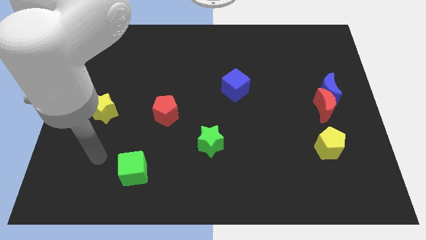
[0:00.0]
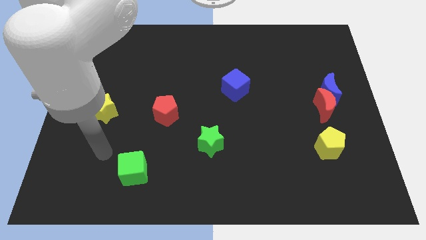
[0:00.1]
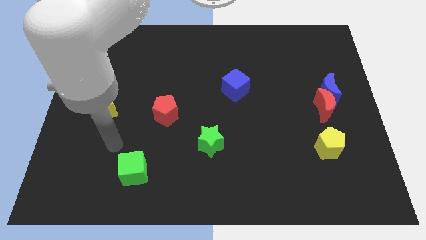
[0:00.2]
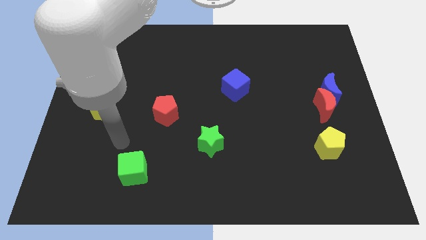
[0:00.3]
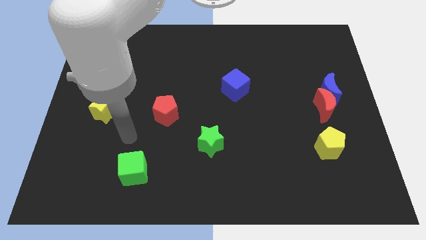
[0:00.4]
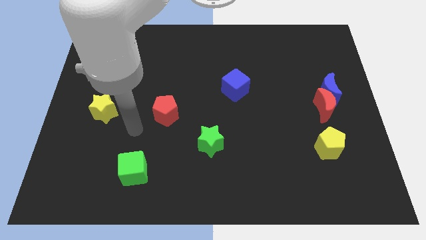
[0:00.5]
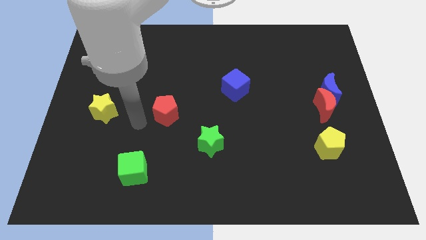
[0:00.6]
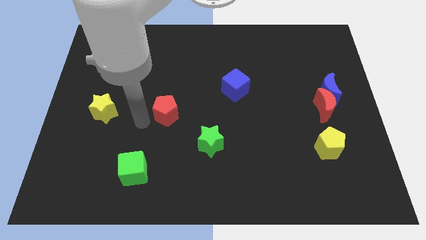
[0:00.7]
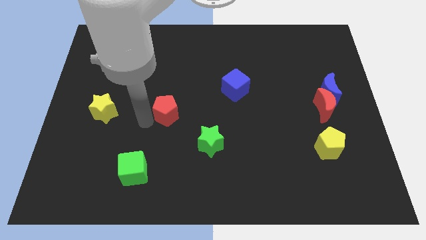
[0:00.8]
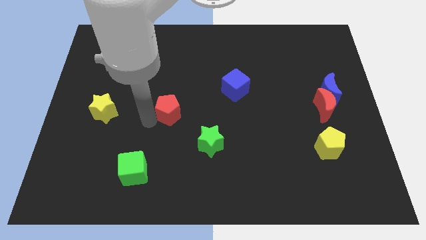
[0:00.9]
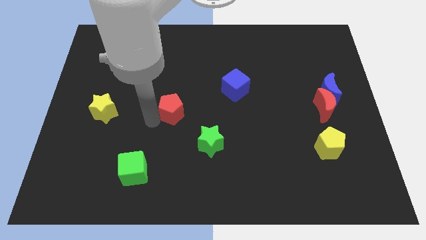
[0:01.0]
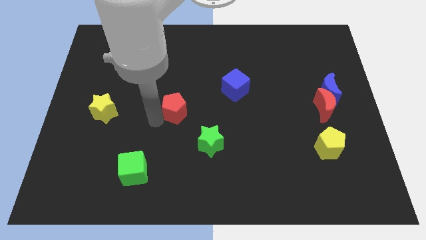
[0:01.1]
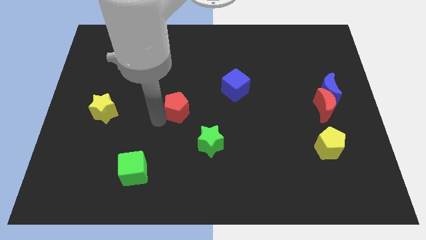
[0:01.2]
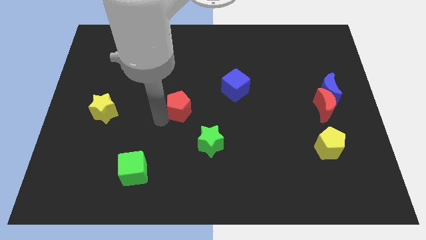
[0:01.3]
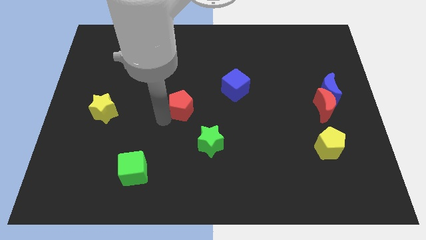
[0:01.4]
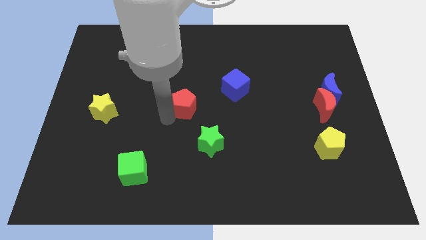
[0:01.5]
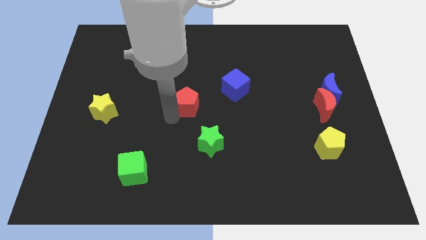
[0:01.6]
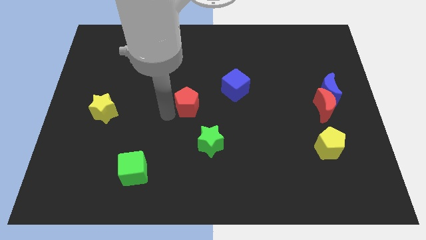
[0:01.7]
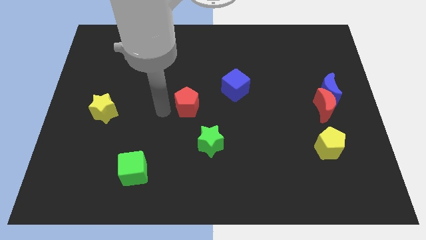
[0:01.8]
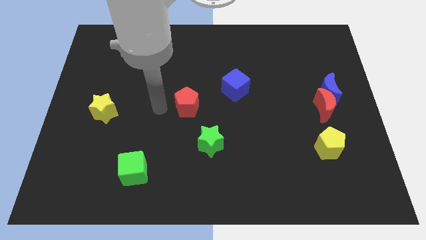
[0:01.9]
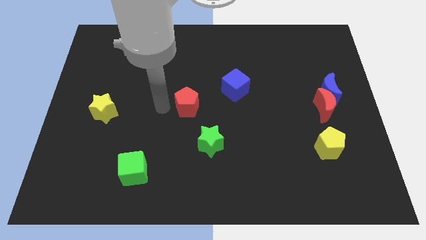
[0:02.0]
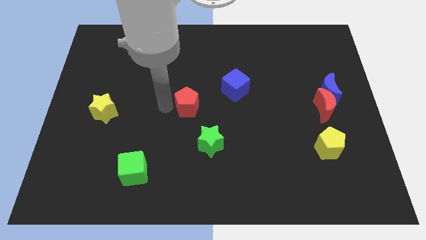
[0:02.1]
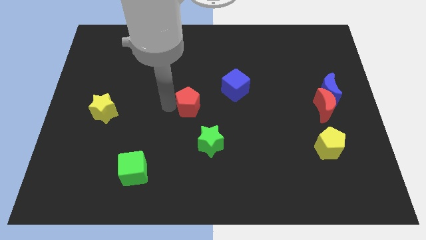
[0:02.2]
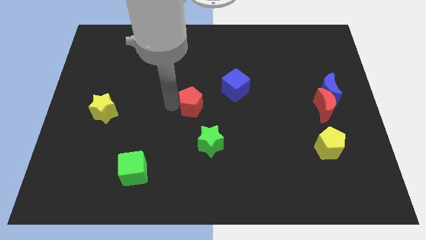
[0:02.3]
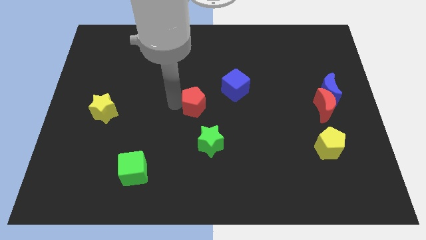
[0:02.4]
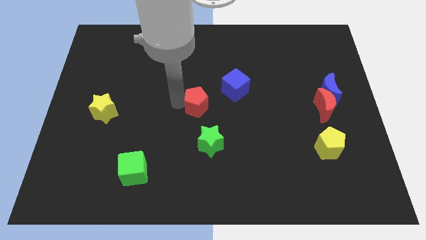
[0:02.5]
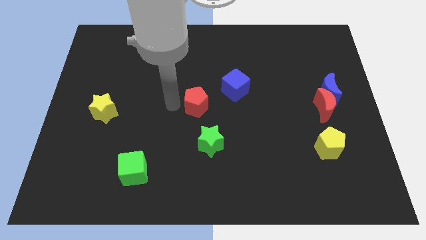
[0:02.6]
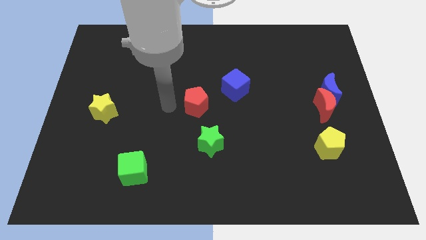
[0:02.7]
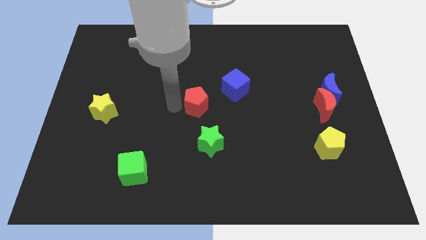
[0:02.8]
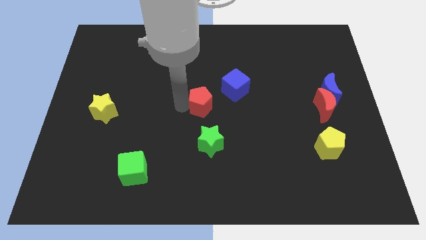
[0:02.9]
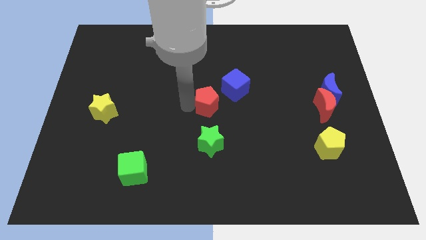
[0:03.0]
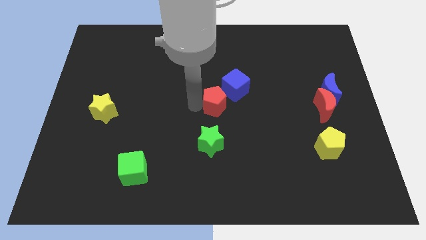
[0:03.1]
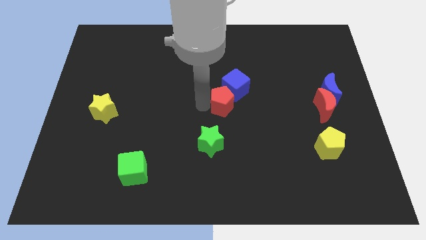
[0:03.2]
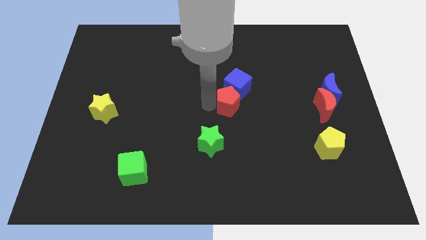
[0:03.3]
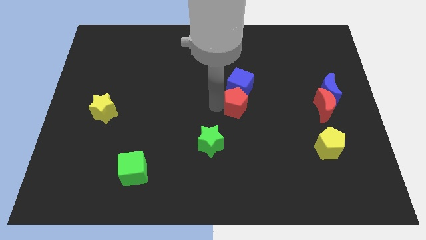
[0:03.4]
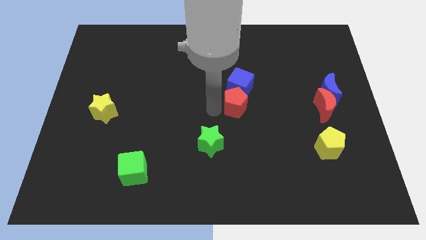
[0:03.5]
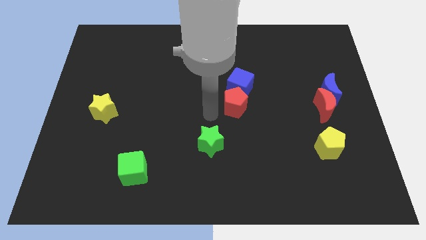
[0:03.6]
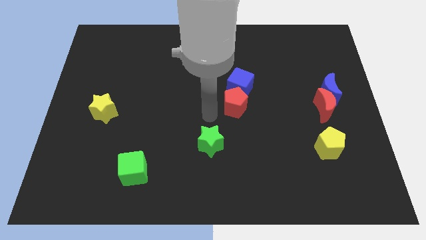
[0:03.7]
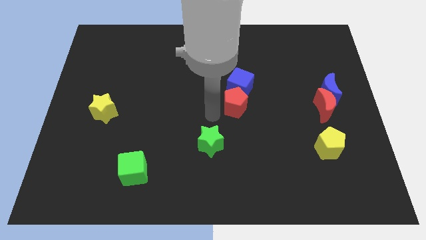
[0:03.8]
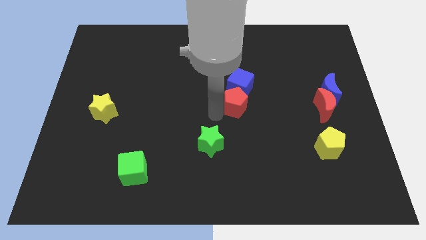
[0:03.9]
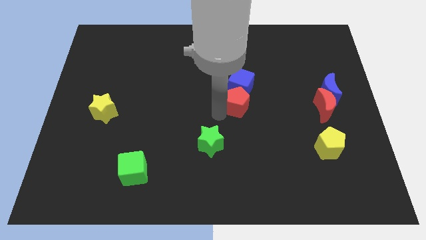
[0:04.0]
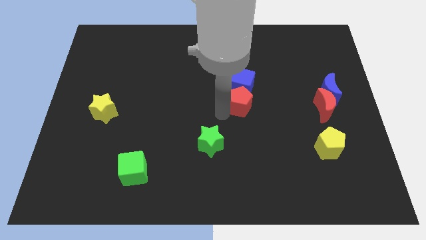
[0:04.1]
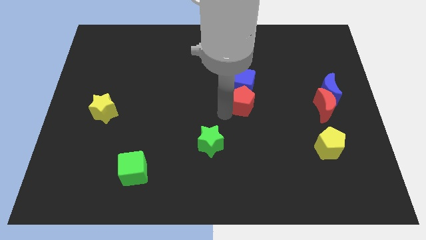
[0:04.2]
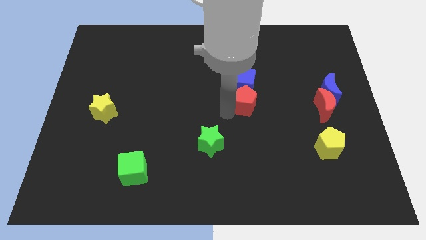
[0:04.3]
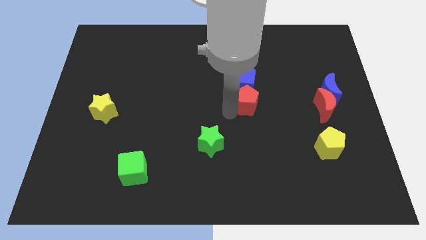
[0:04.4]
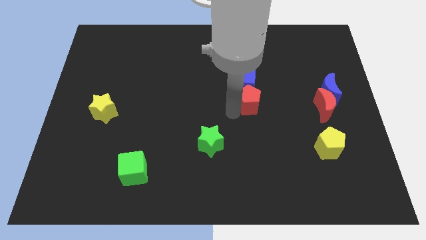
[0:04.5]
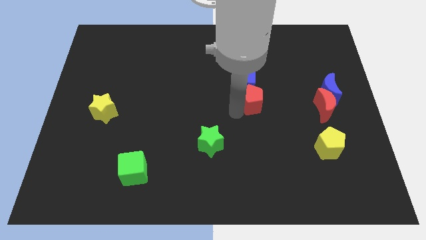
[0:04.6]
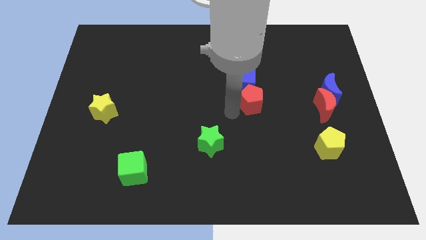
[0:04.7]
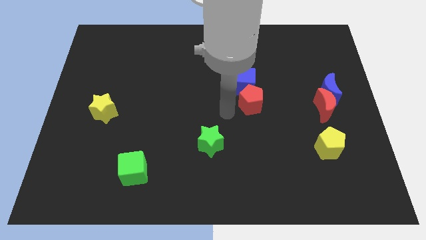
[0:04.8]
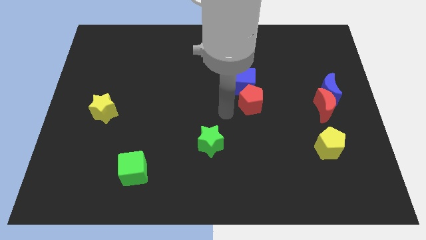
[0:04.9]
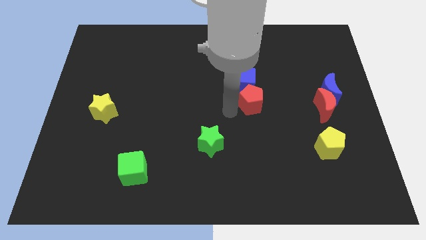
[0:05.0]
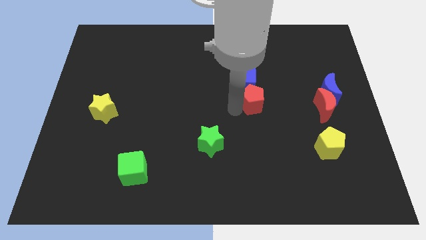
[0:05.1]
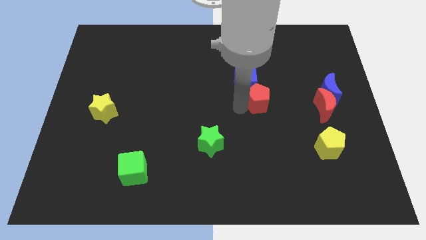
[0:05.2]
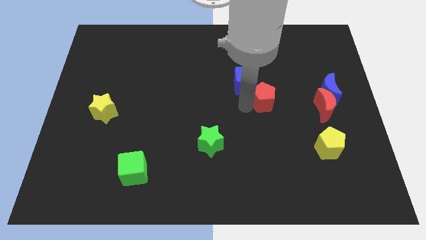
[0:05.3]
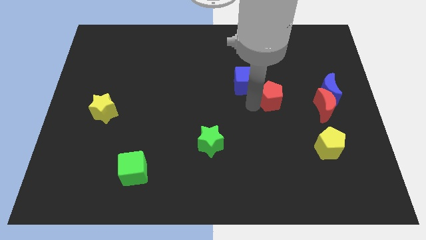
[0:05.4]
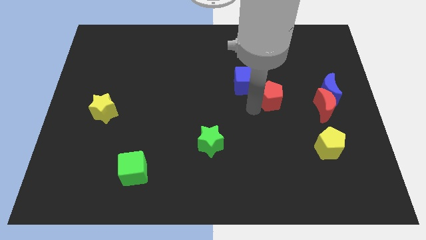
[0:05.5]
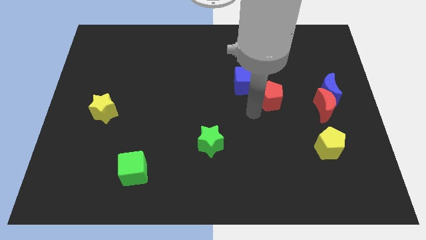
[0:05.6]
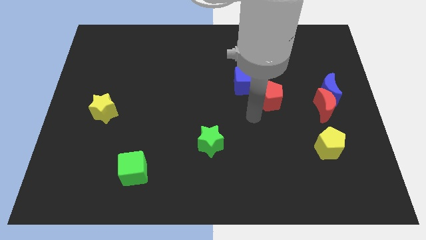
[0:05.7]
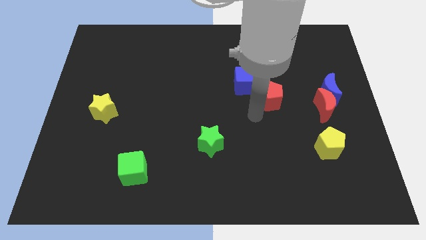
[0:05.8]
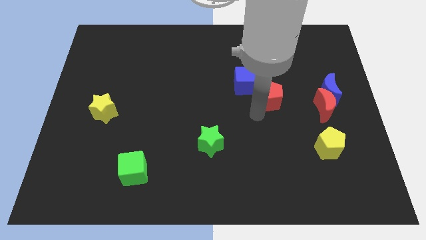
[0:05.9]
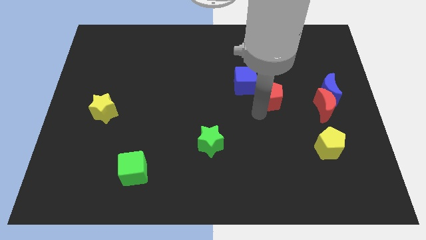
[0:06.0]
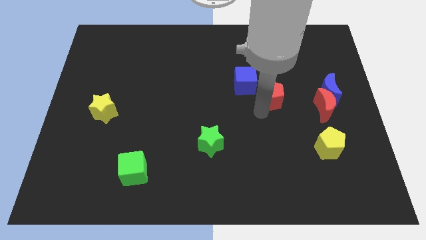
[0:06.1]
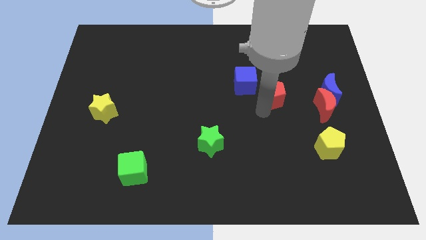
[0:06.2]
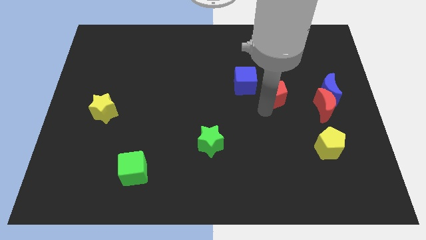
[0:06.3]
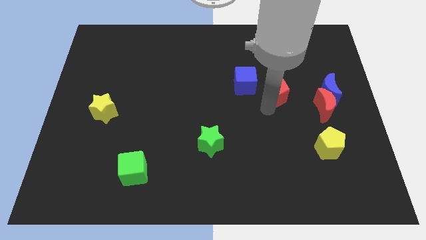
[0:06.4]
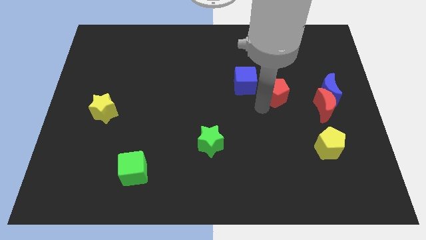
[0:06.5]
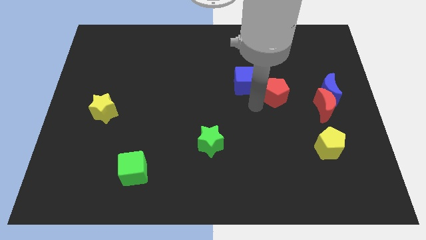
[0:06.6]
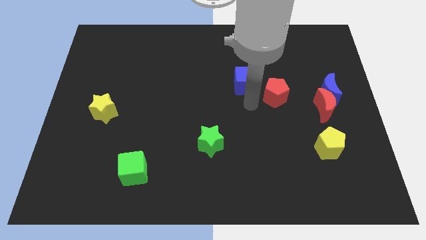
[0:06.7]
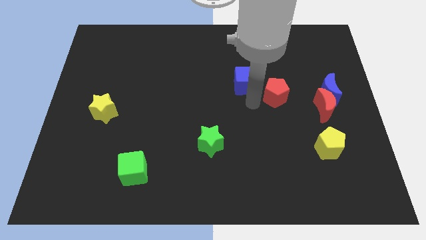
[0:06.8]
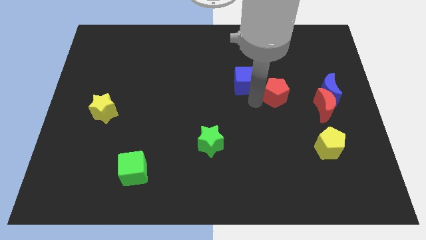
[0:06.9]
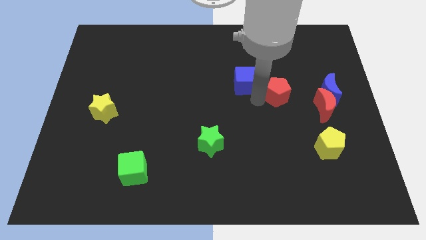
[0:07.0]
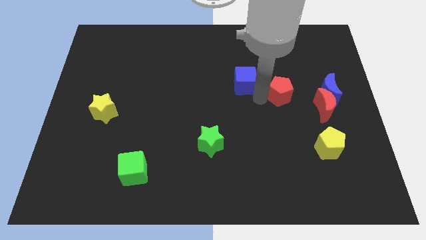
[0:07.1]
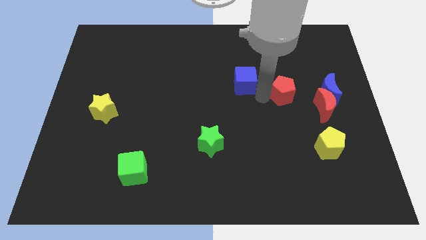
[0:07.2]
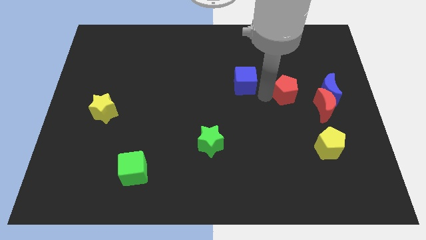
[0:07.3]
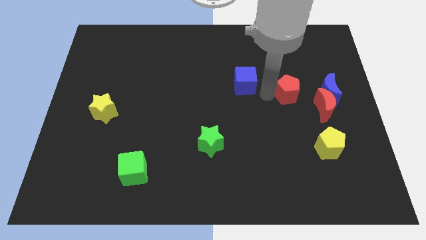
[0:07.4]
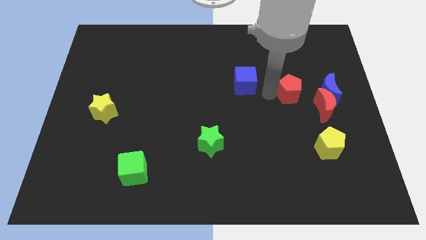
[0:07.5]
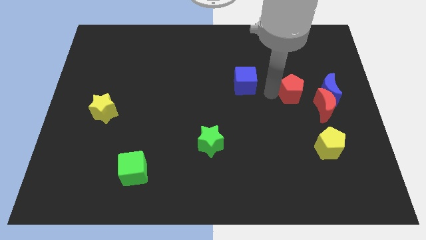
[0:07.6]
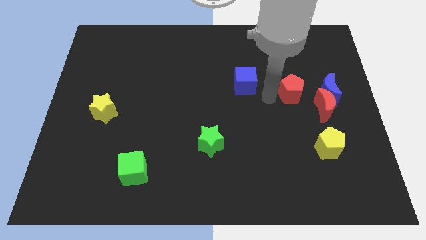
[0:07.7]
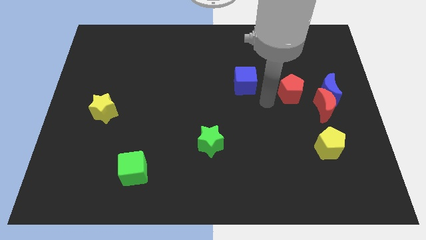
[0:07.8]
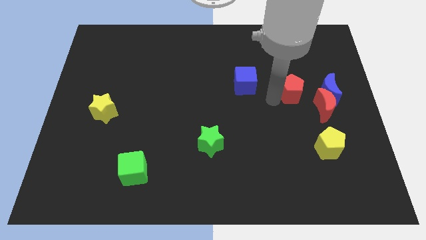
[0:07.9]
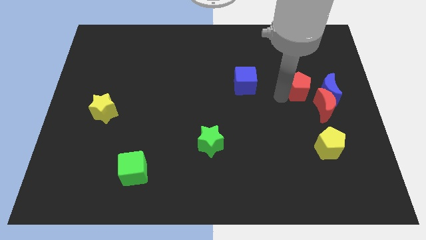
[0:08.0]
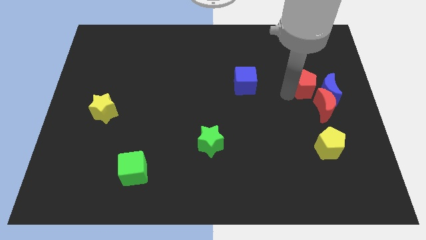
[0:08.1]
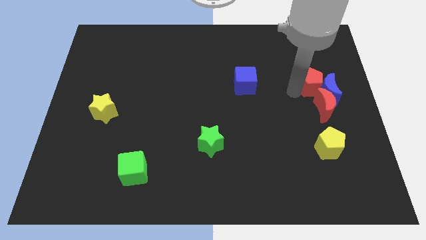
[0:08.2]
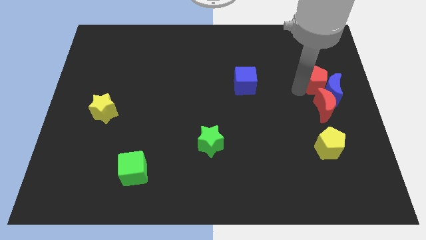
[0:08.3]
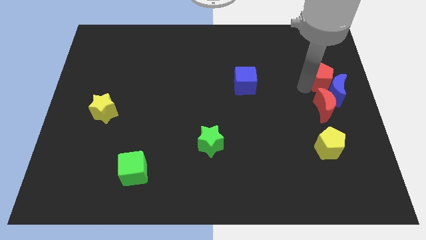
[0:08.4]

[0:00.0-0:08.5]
slide the red pentagon to the center right
